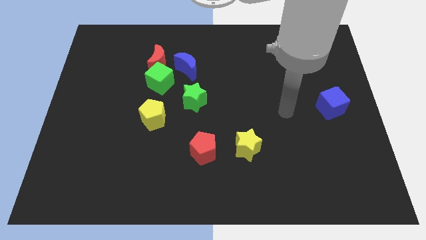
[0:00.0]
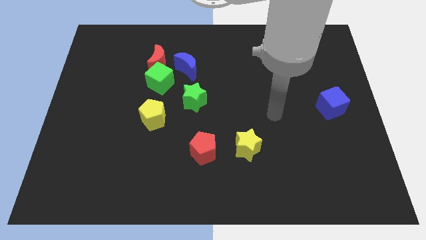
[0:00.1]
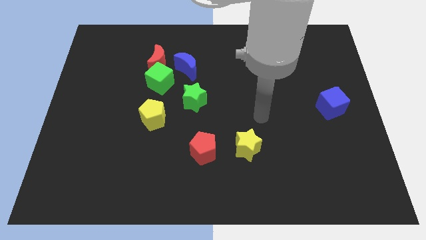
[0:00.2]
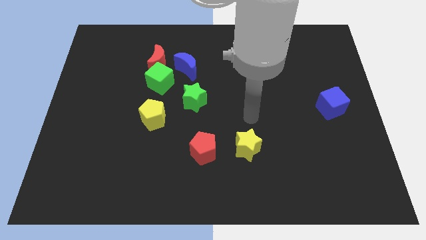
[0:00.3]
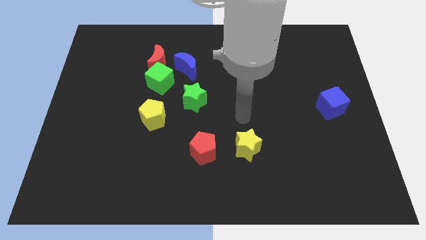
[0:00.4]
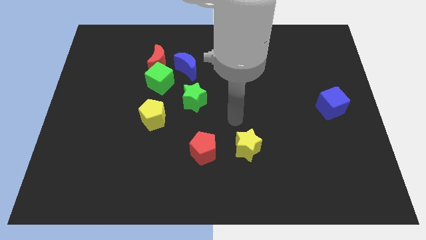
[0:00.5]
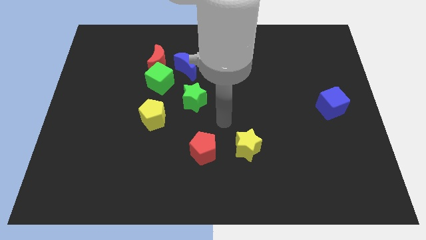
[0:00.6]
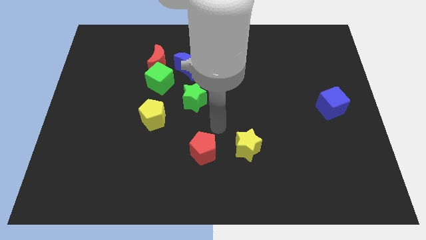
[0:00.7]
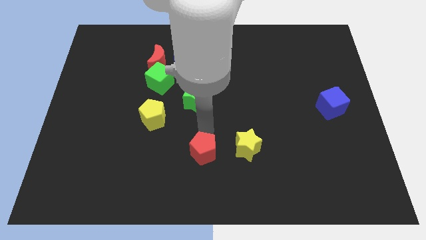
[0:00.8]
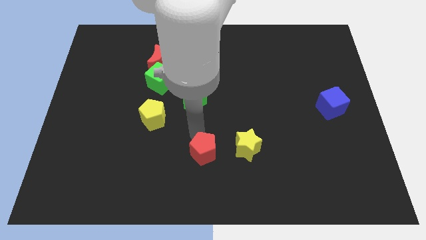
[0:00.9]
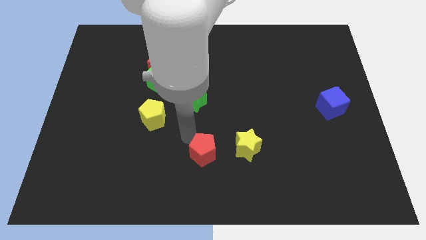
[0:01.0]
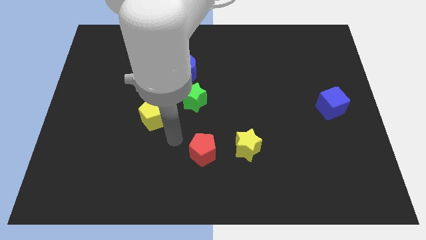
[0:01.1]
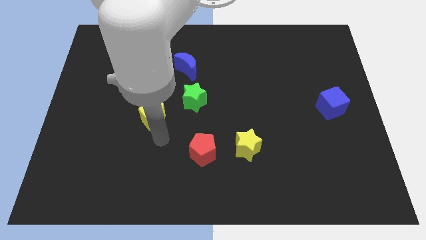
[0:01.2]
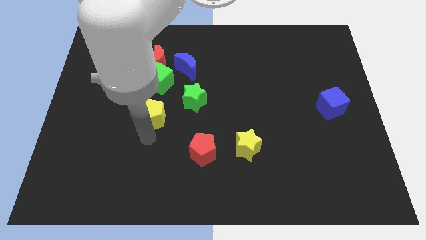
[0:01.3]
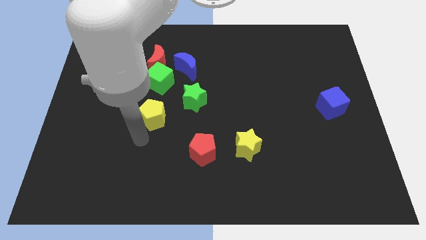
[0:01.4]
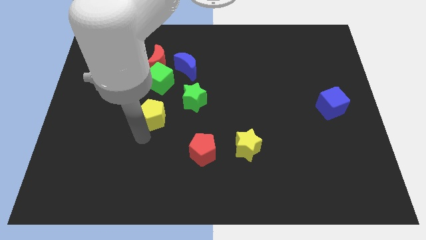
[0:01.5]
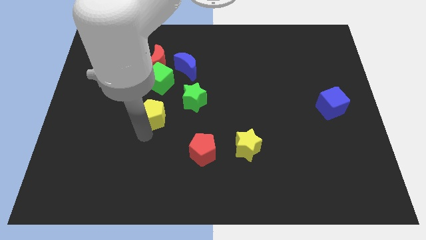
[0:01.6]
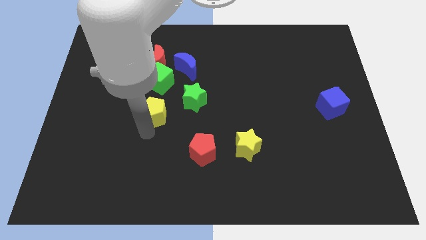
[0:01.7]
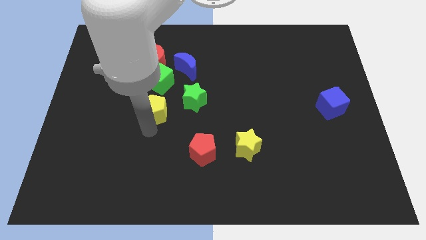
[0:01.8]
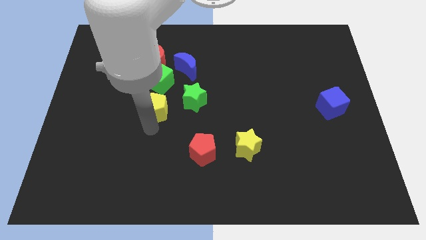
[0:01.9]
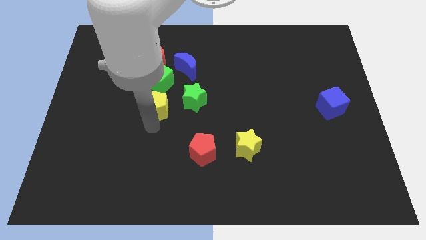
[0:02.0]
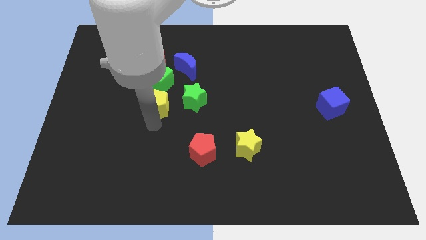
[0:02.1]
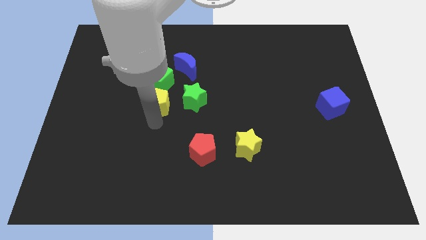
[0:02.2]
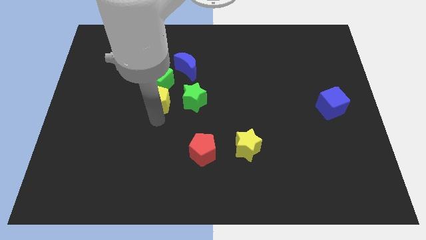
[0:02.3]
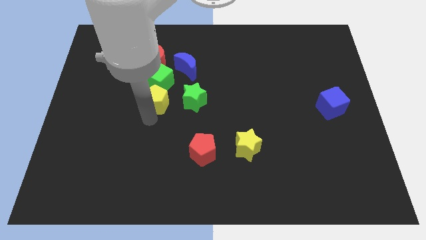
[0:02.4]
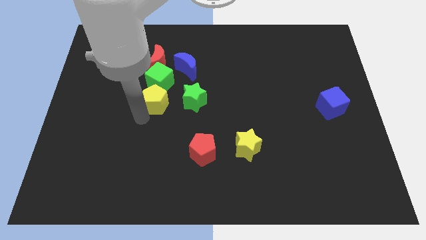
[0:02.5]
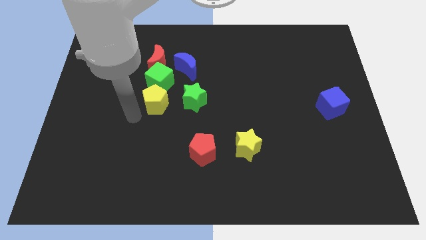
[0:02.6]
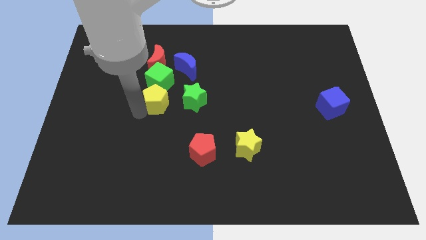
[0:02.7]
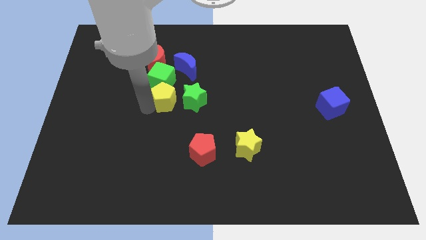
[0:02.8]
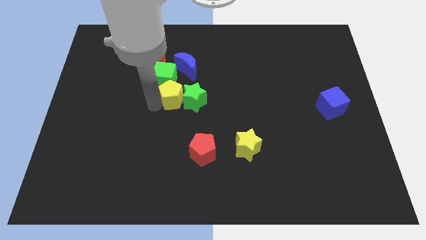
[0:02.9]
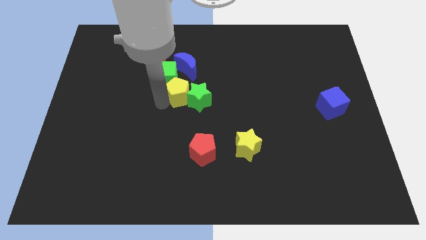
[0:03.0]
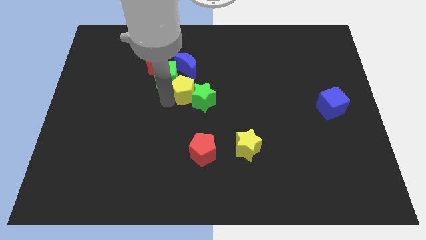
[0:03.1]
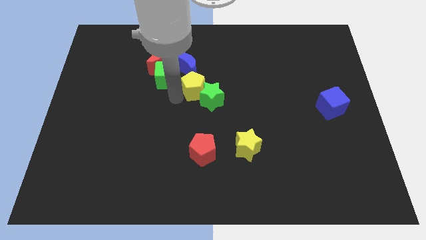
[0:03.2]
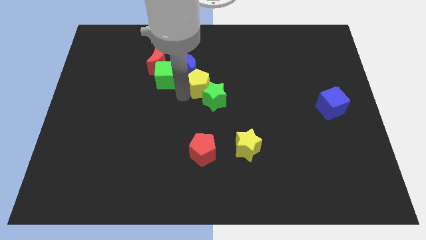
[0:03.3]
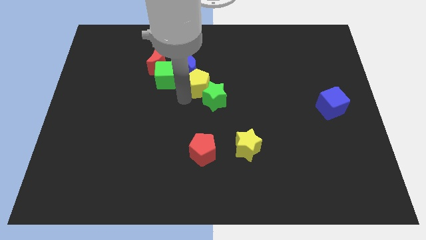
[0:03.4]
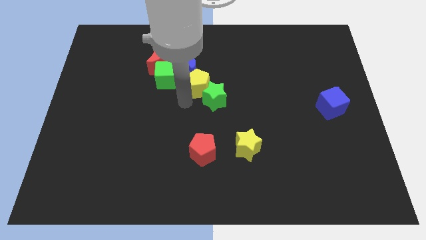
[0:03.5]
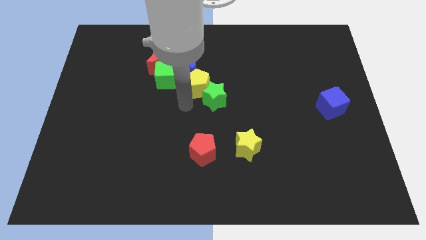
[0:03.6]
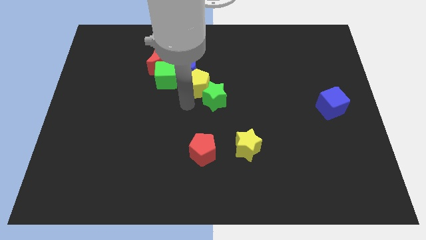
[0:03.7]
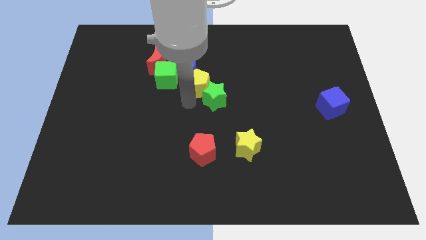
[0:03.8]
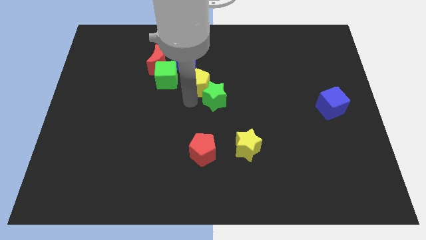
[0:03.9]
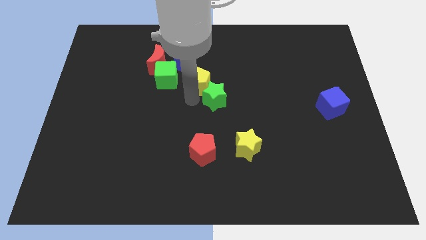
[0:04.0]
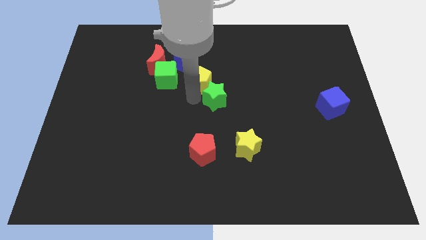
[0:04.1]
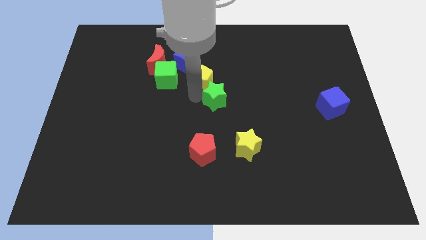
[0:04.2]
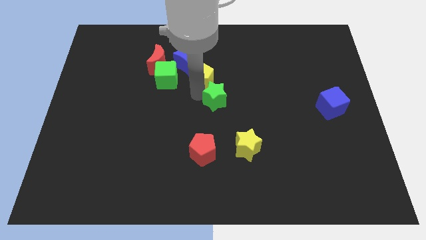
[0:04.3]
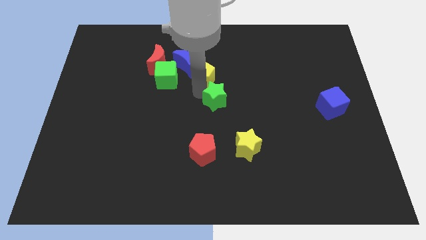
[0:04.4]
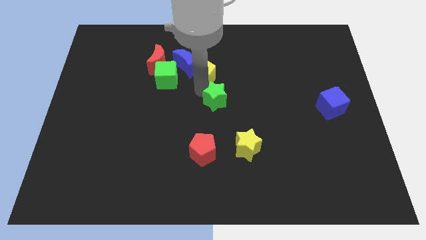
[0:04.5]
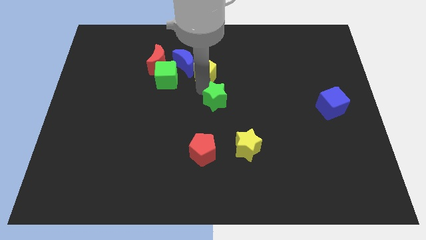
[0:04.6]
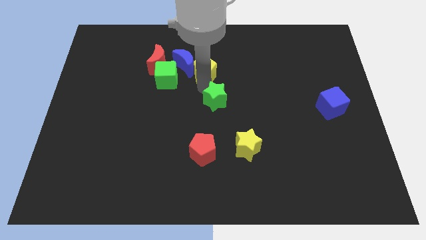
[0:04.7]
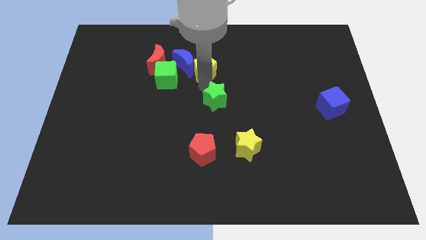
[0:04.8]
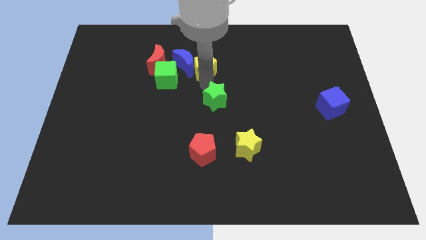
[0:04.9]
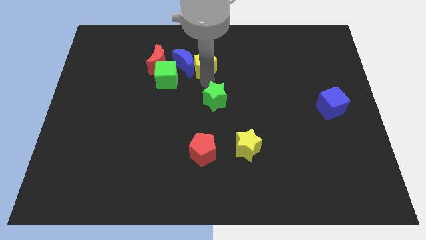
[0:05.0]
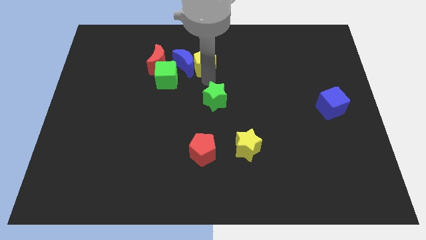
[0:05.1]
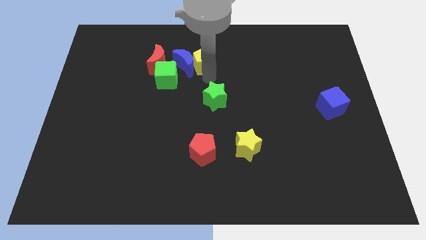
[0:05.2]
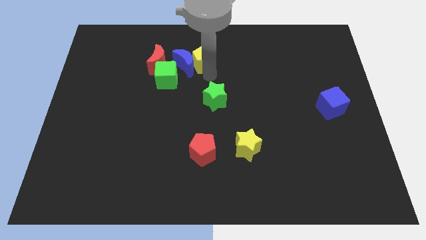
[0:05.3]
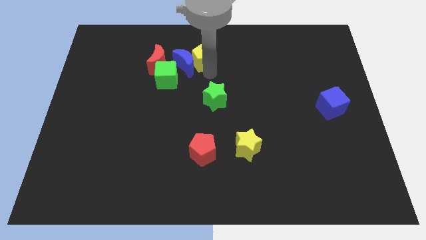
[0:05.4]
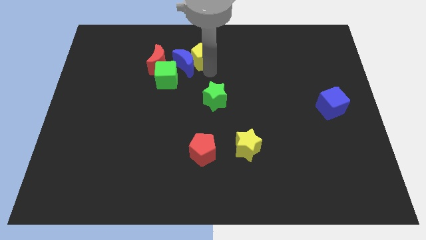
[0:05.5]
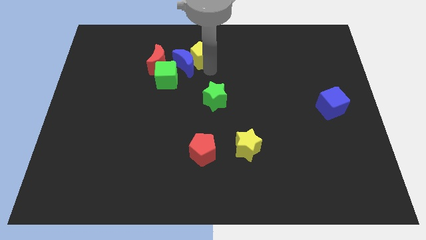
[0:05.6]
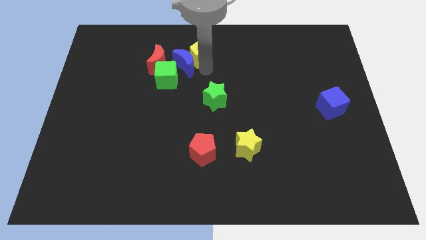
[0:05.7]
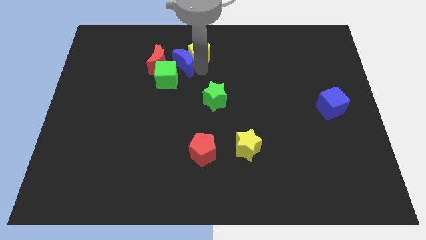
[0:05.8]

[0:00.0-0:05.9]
move the yellow pentagon to the towards your base
